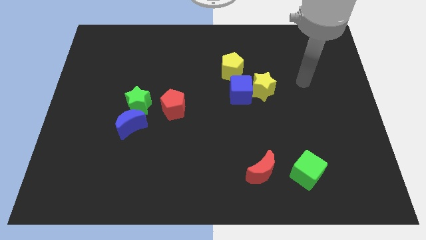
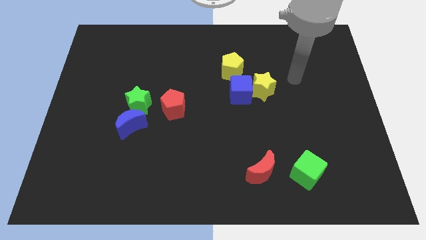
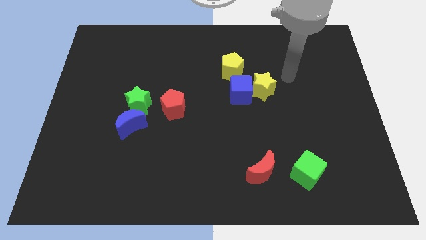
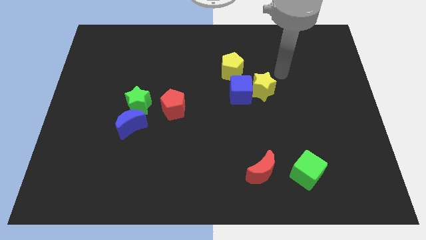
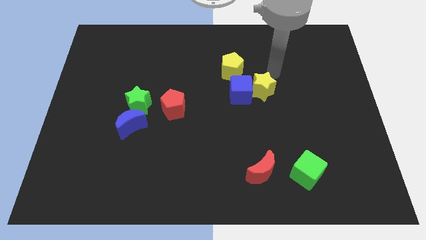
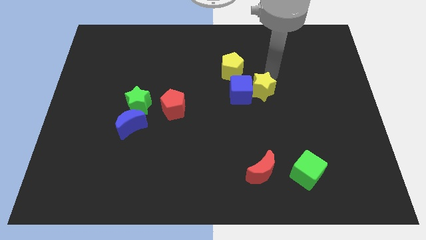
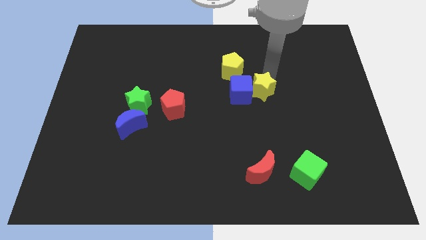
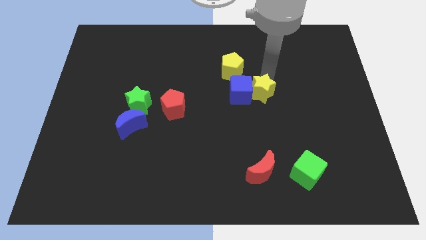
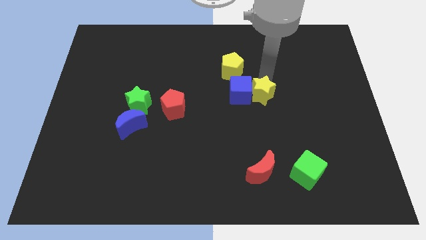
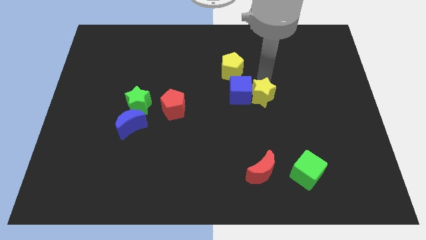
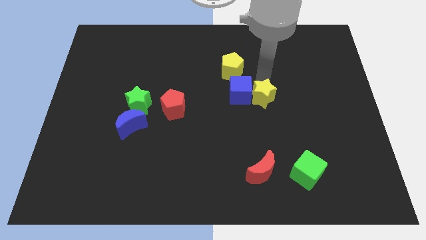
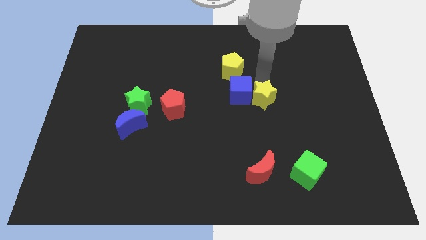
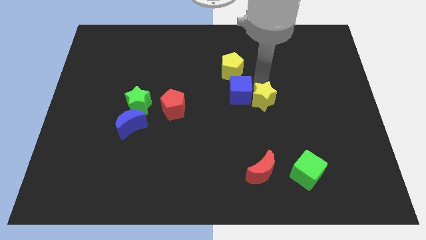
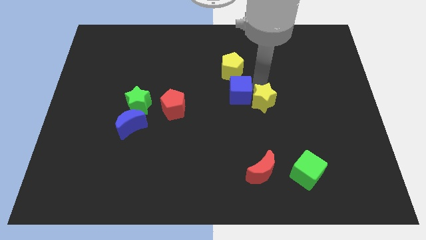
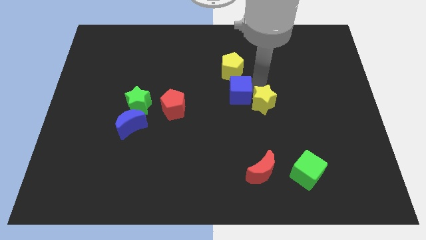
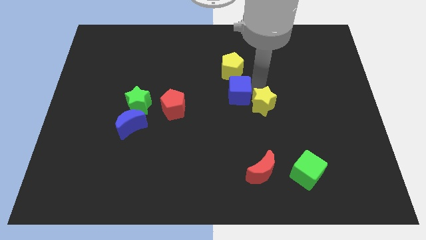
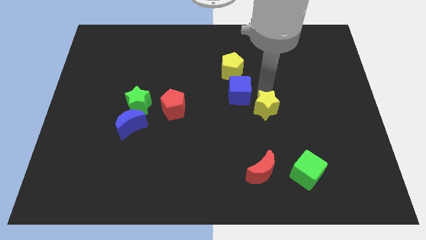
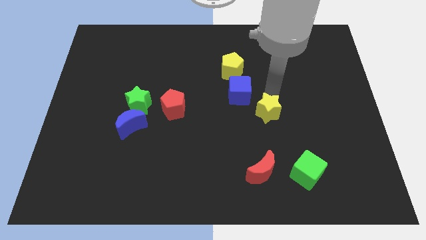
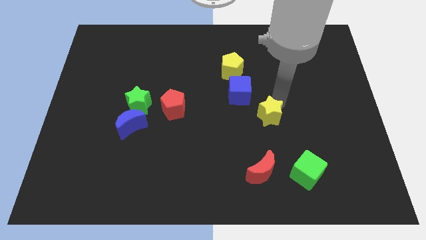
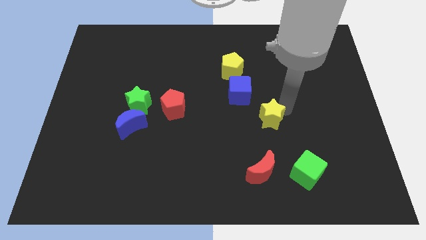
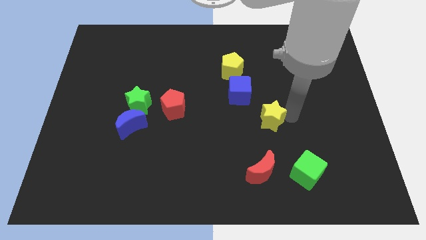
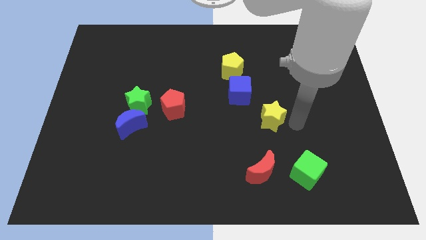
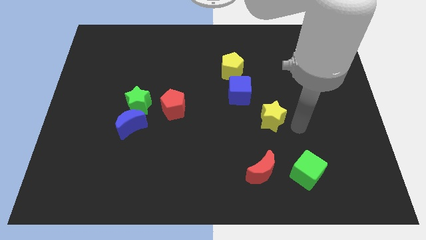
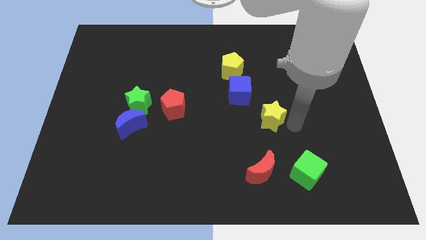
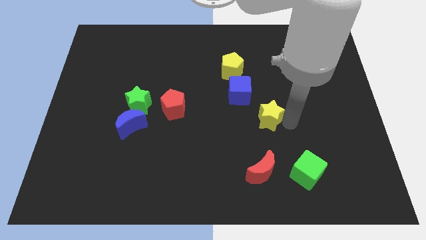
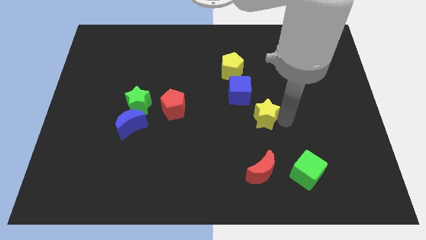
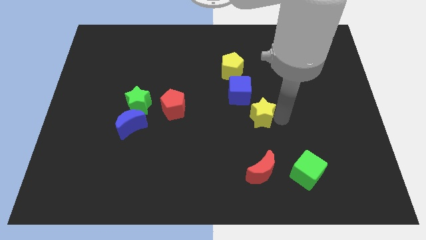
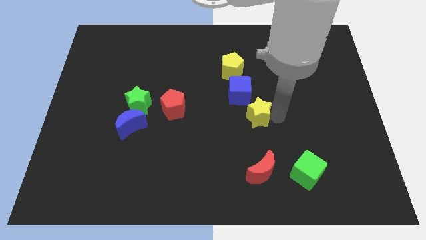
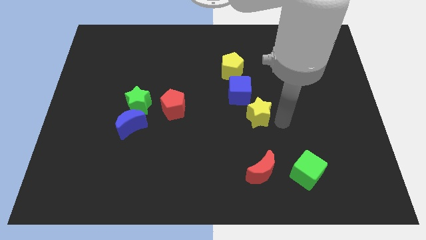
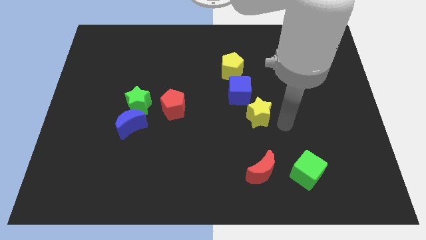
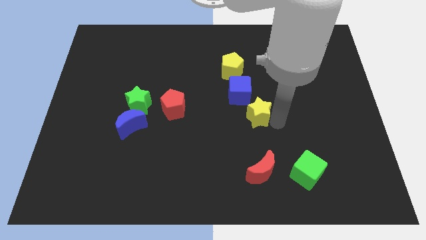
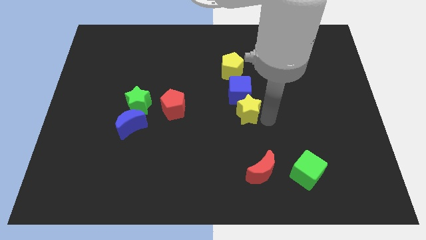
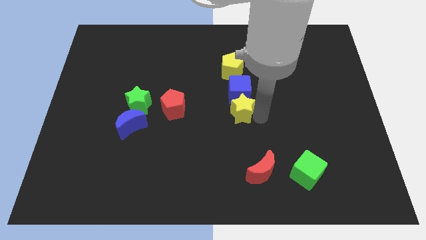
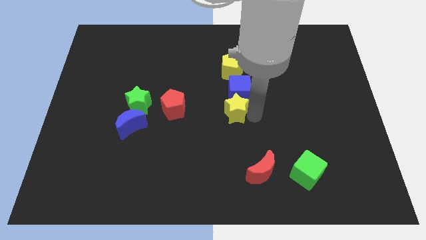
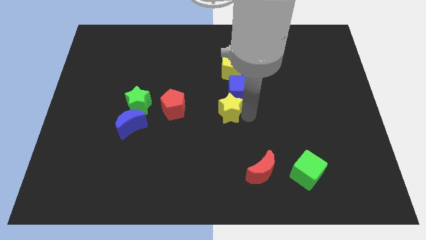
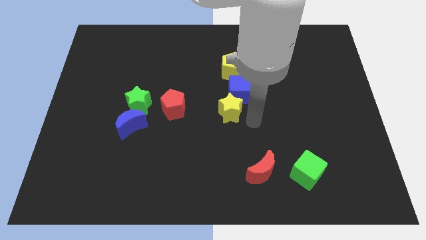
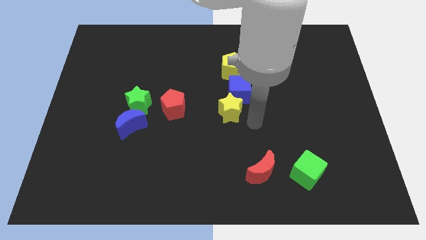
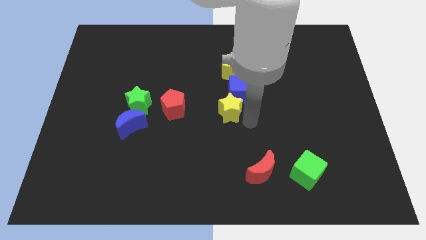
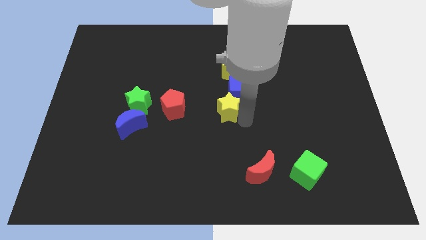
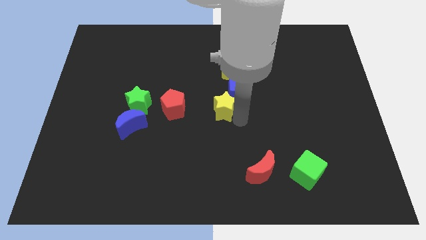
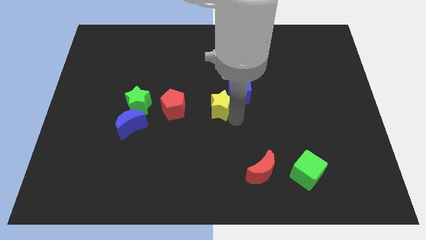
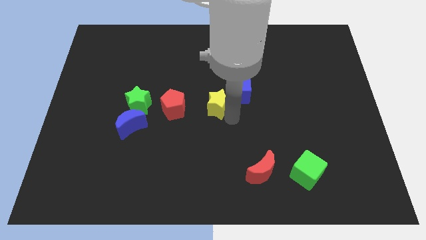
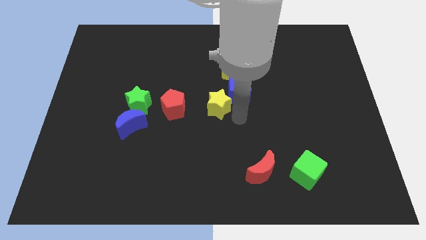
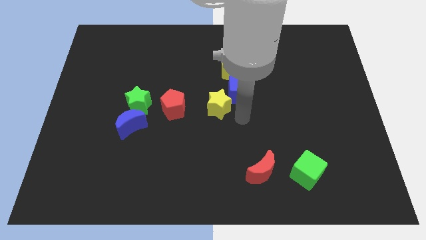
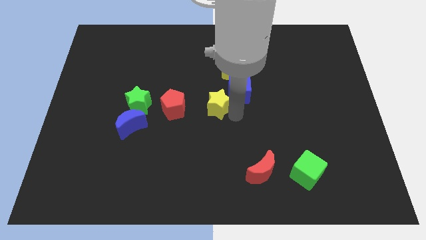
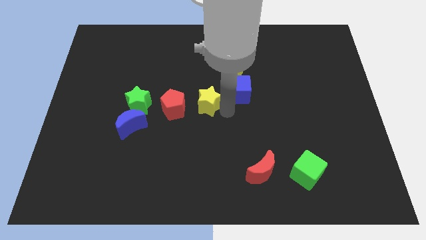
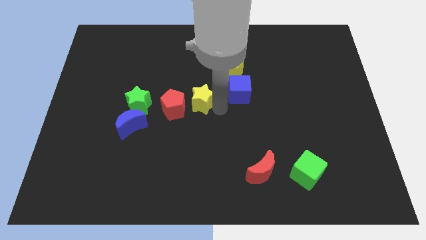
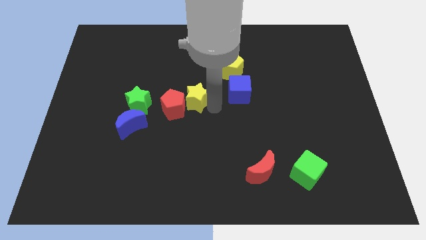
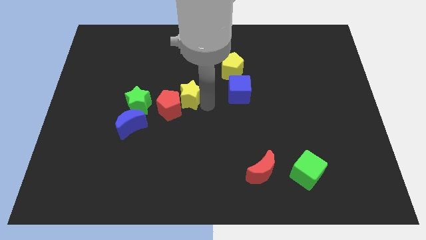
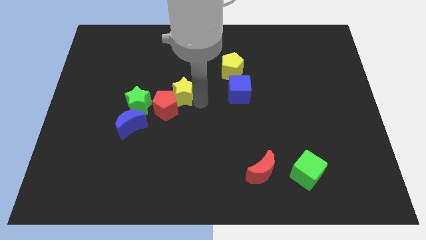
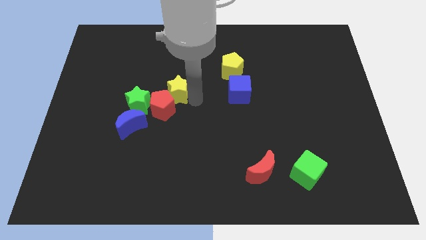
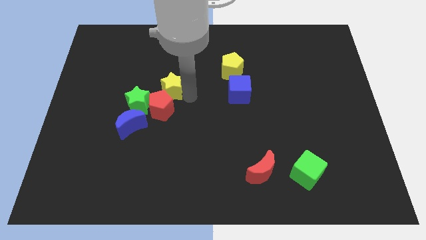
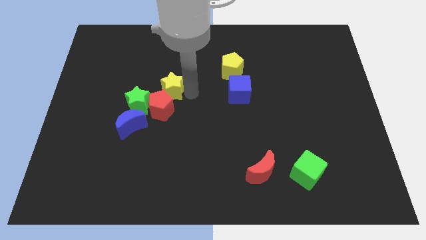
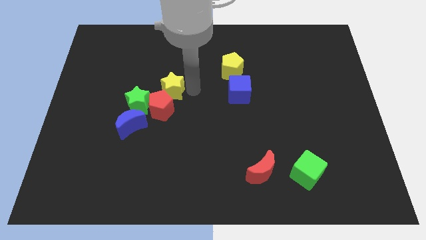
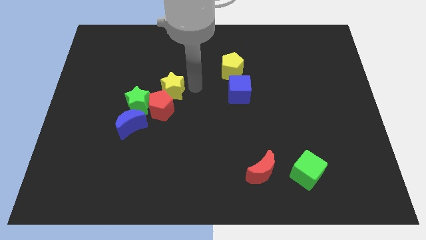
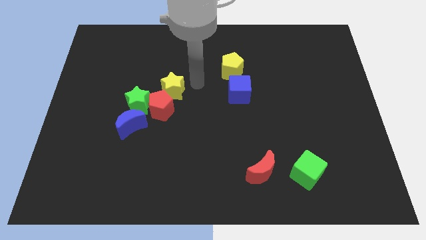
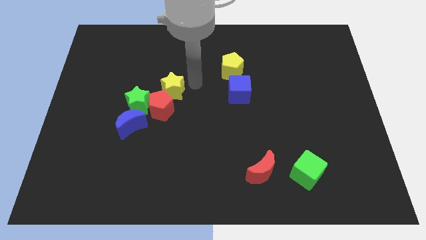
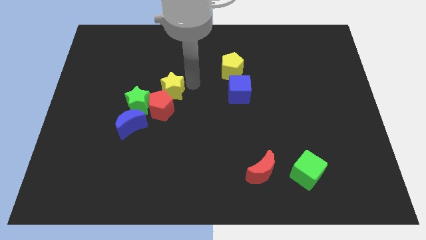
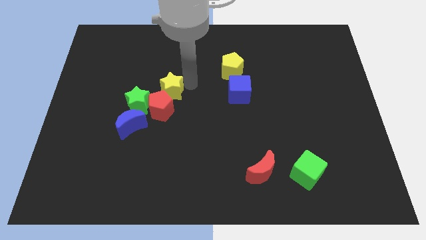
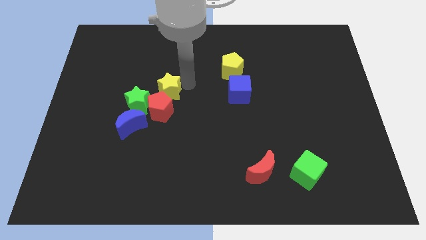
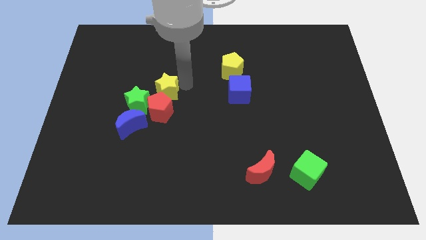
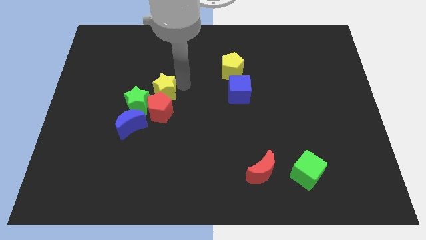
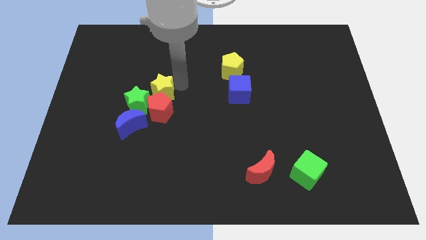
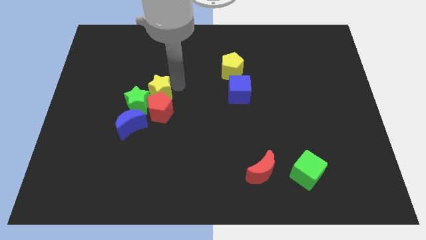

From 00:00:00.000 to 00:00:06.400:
move the yellow star close to the green star
